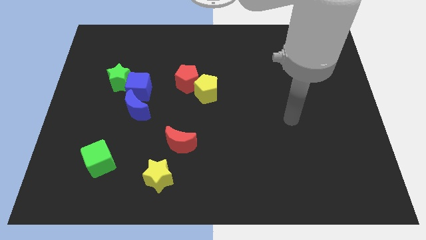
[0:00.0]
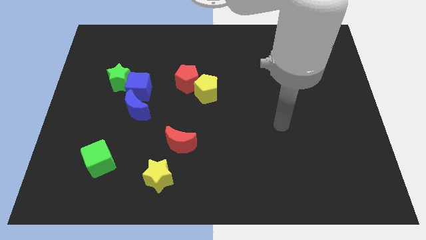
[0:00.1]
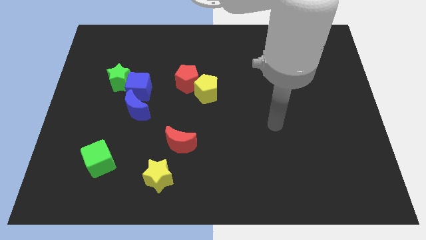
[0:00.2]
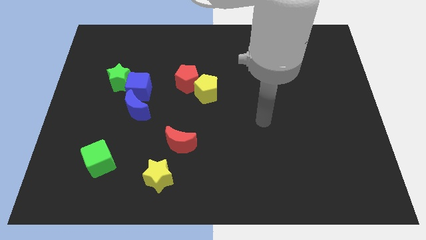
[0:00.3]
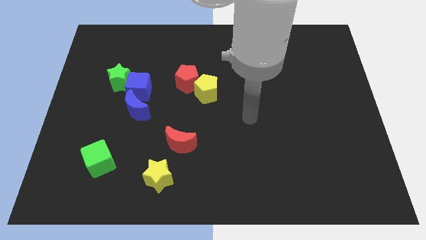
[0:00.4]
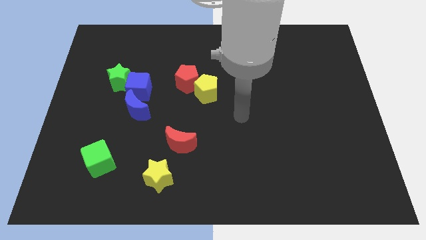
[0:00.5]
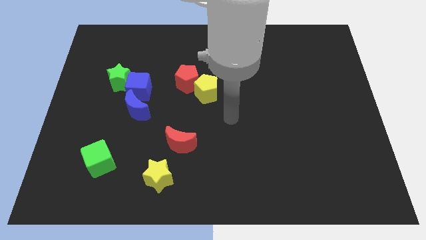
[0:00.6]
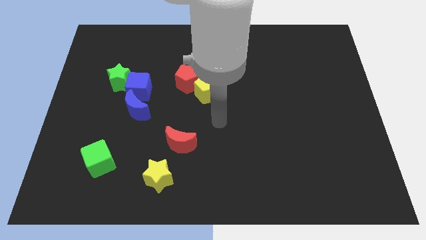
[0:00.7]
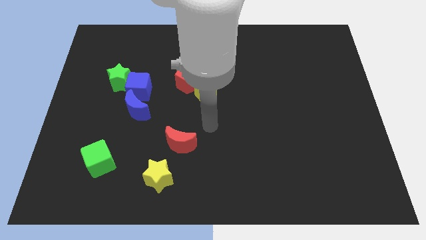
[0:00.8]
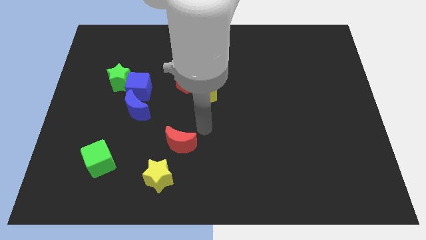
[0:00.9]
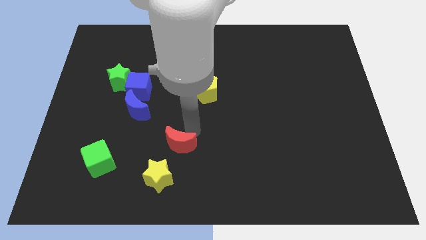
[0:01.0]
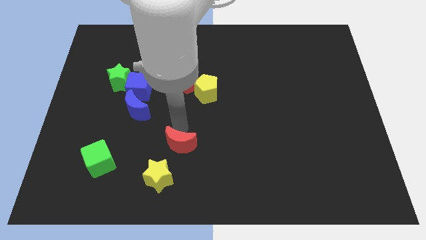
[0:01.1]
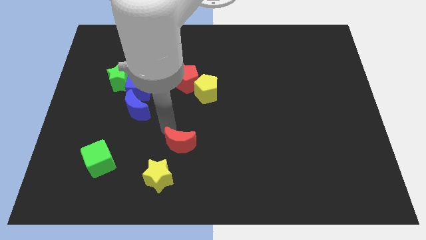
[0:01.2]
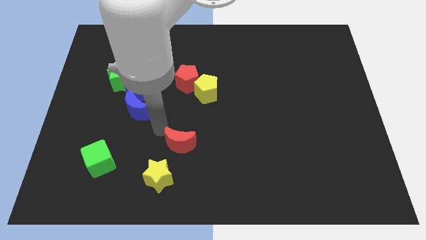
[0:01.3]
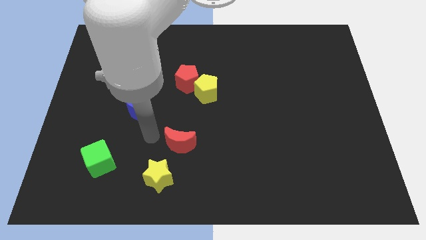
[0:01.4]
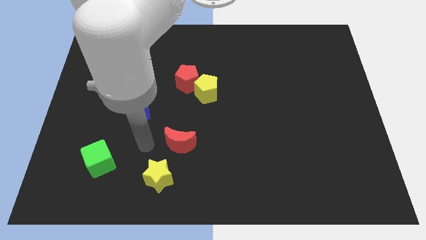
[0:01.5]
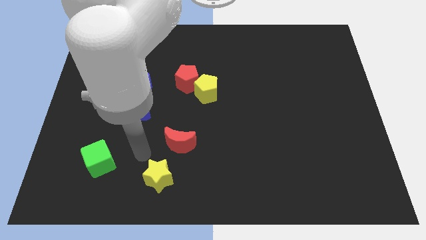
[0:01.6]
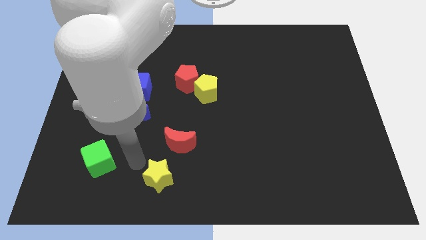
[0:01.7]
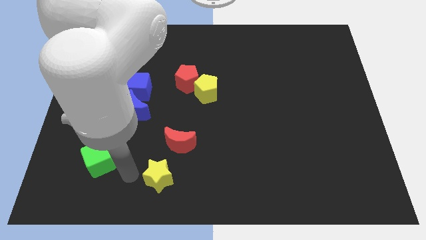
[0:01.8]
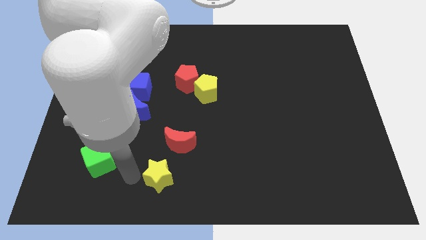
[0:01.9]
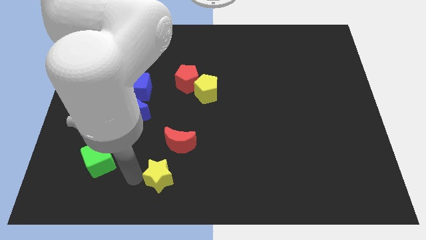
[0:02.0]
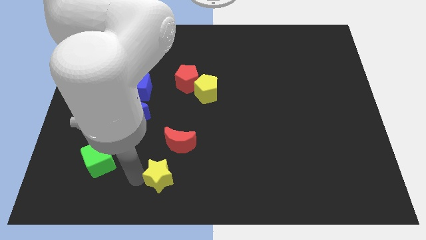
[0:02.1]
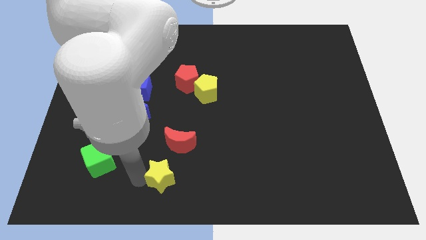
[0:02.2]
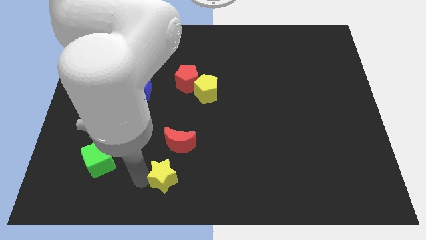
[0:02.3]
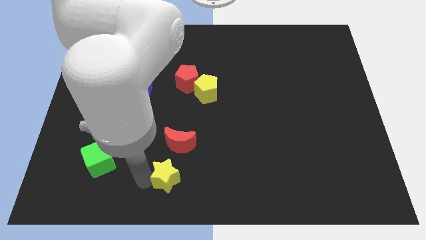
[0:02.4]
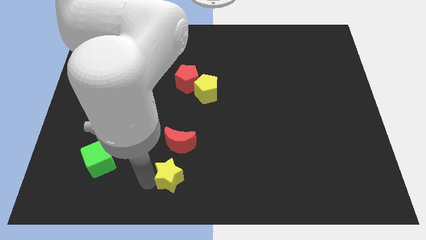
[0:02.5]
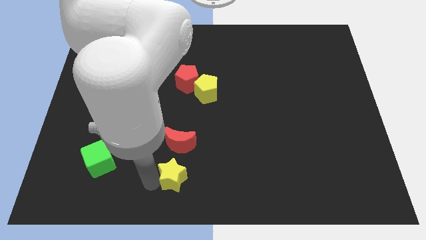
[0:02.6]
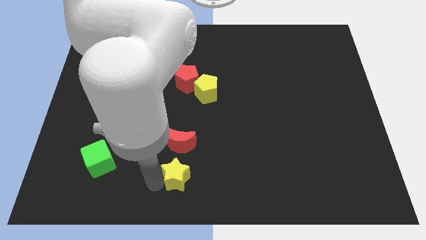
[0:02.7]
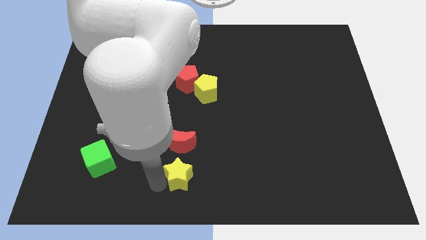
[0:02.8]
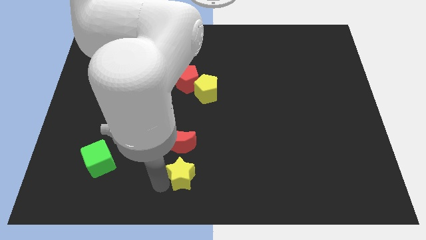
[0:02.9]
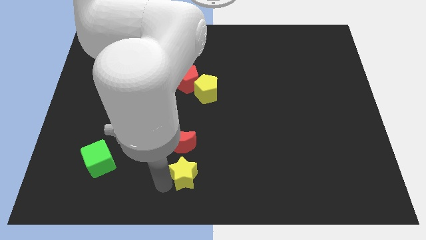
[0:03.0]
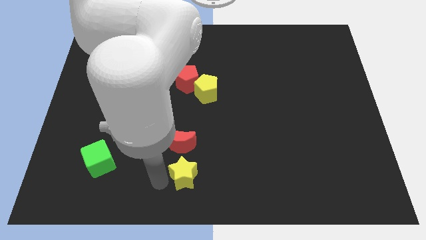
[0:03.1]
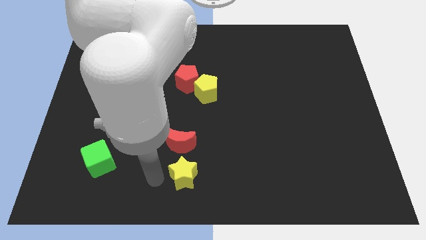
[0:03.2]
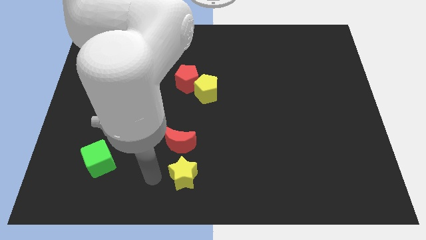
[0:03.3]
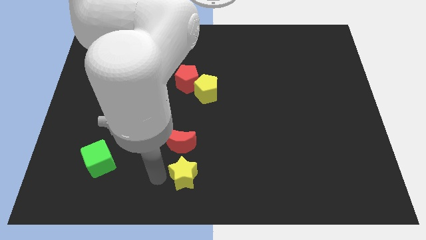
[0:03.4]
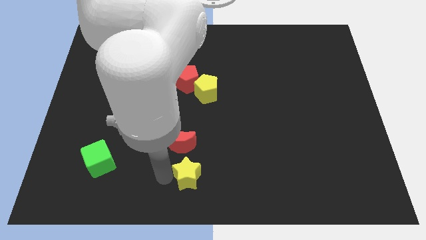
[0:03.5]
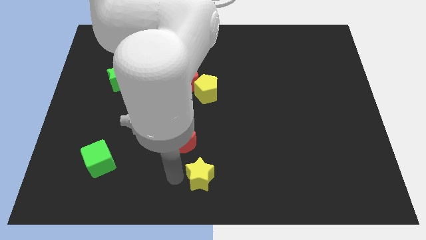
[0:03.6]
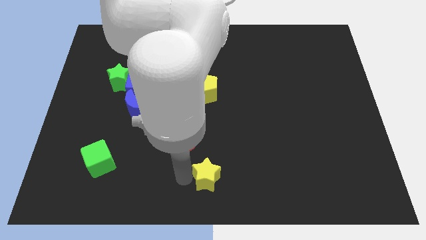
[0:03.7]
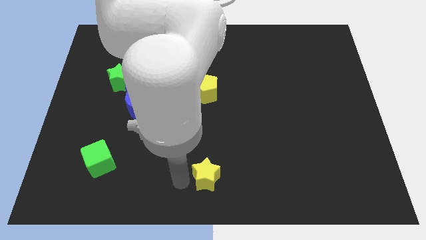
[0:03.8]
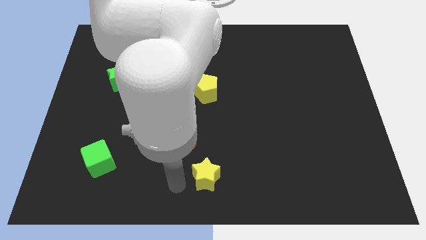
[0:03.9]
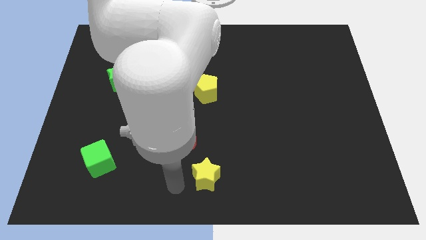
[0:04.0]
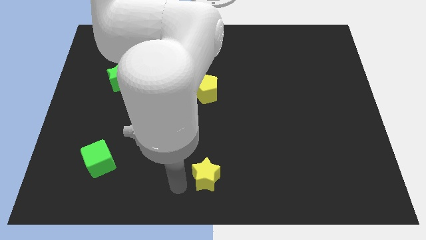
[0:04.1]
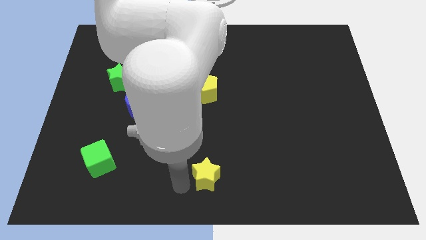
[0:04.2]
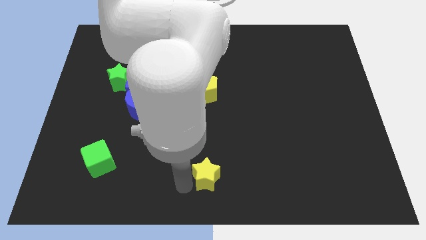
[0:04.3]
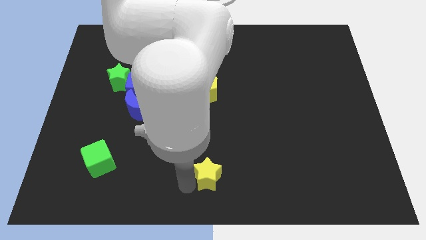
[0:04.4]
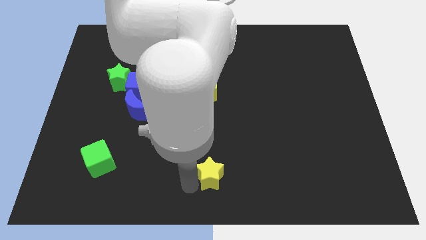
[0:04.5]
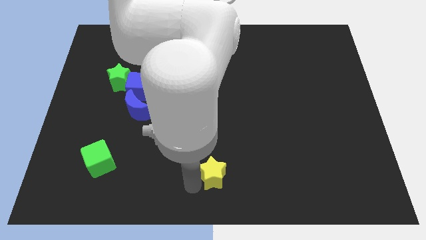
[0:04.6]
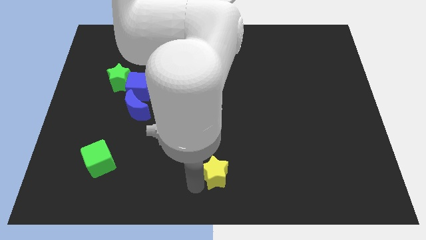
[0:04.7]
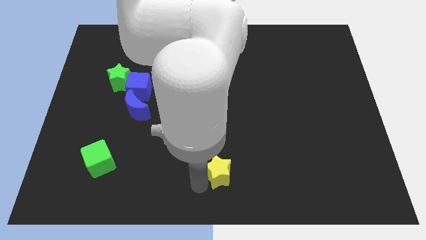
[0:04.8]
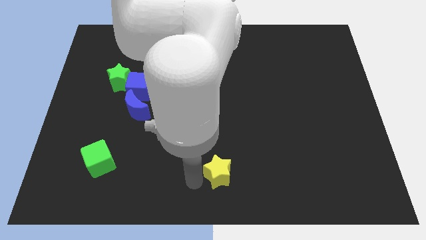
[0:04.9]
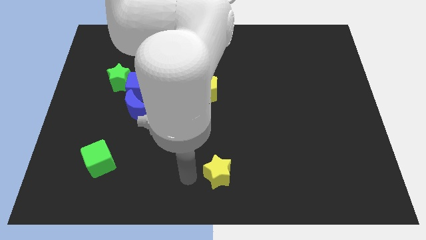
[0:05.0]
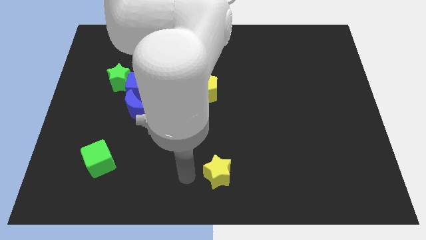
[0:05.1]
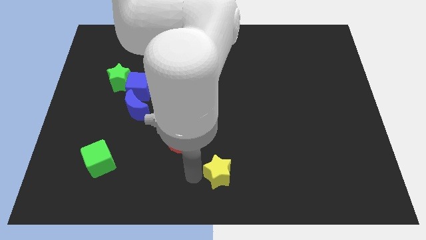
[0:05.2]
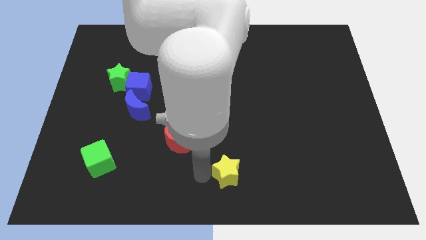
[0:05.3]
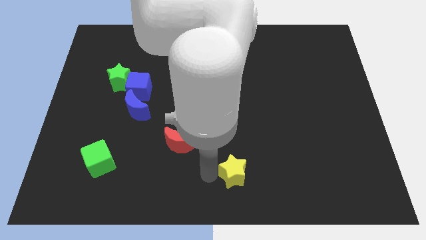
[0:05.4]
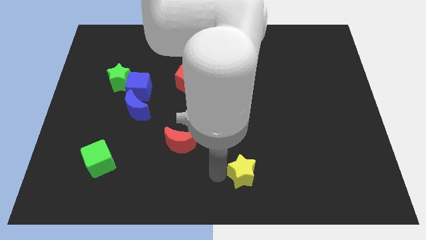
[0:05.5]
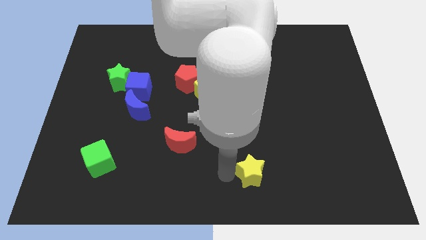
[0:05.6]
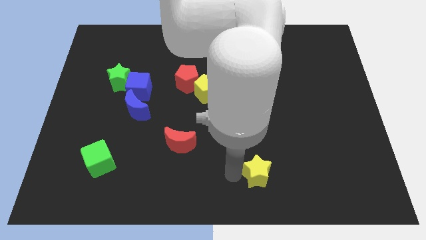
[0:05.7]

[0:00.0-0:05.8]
push the yellow star to the right

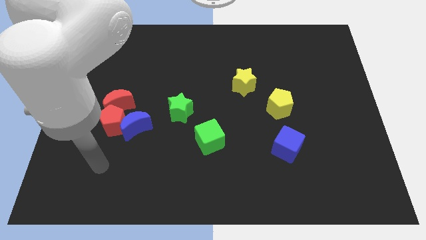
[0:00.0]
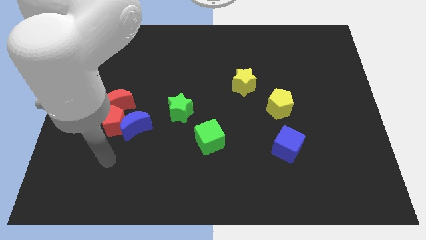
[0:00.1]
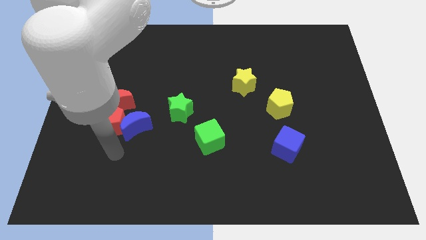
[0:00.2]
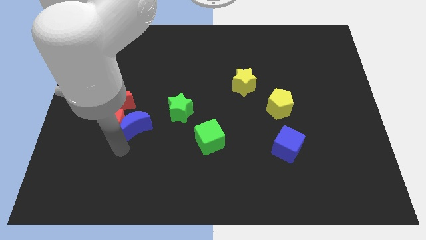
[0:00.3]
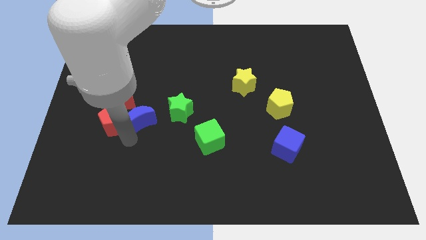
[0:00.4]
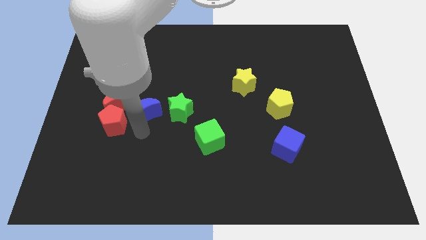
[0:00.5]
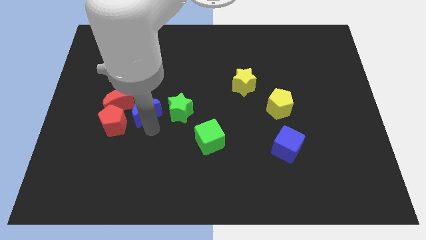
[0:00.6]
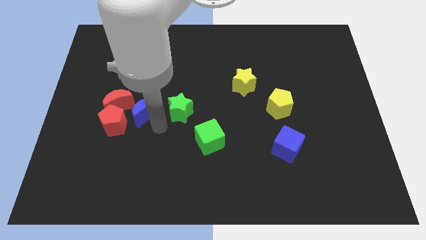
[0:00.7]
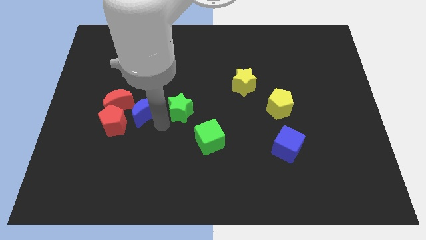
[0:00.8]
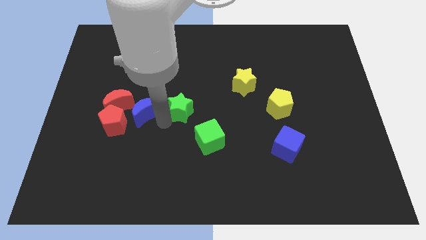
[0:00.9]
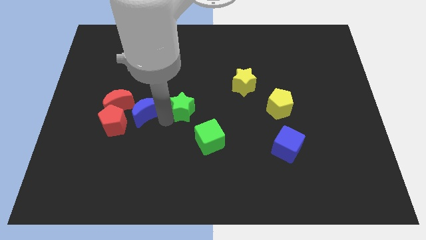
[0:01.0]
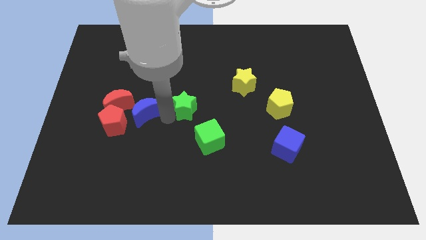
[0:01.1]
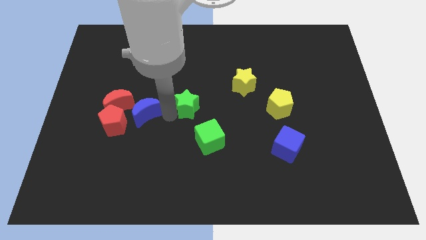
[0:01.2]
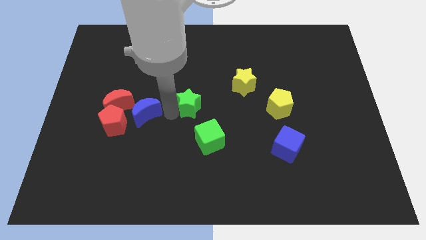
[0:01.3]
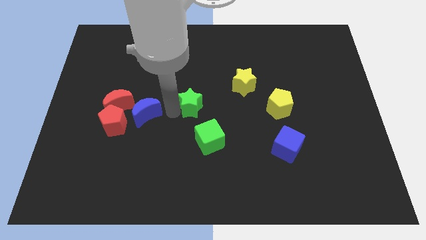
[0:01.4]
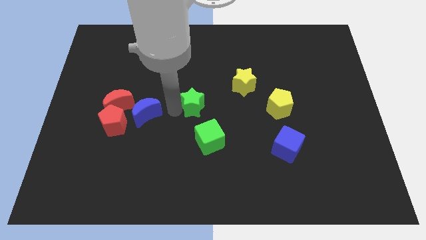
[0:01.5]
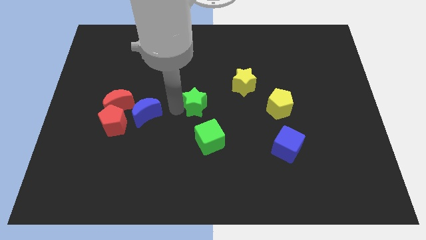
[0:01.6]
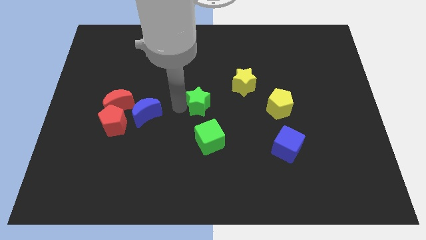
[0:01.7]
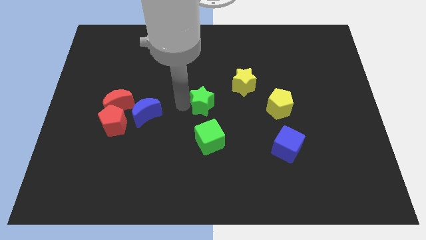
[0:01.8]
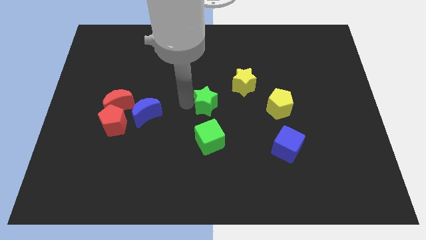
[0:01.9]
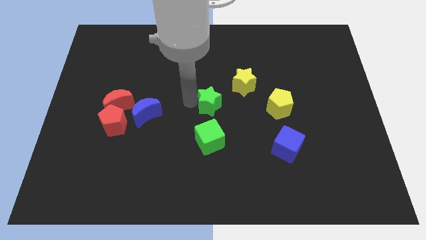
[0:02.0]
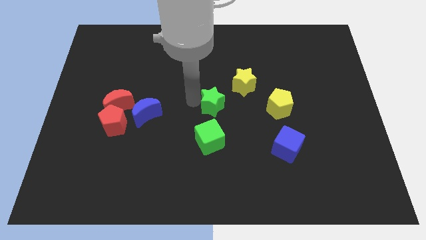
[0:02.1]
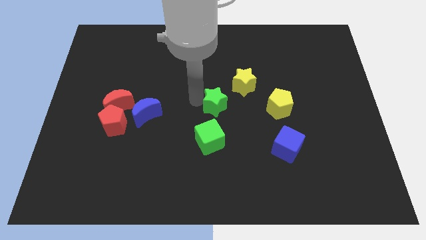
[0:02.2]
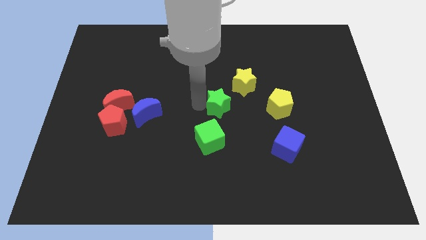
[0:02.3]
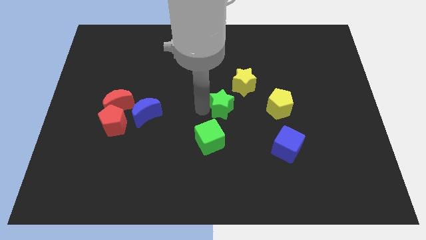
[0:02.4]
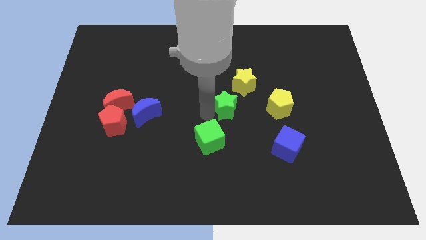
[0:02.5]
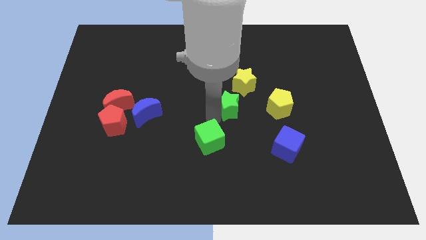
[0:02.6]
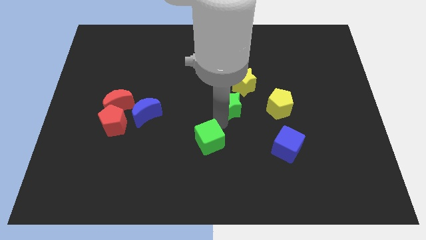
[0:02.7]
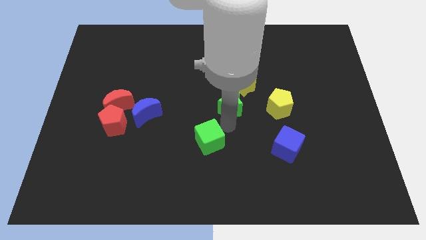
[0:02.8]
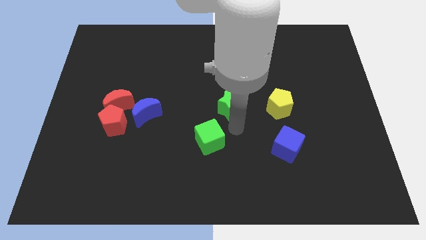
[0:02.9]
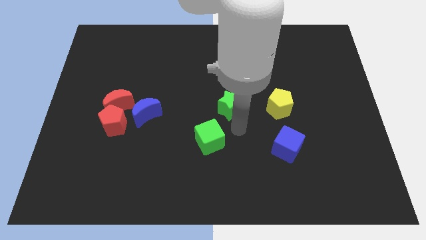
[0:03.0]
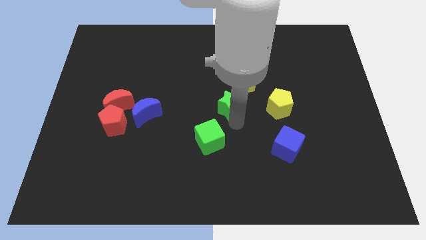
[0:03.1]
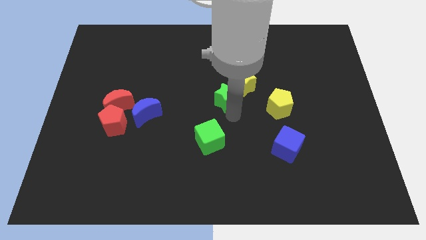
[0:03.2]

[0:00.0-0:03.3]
move the green star slightly diagonally upwards and right
